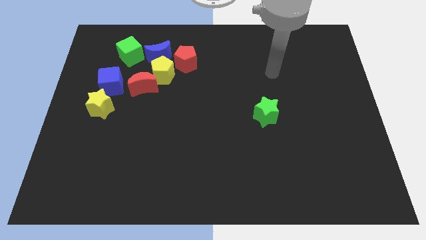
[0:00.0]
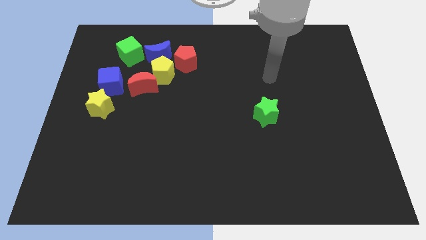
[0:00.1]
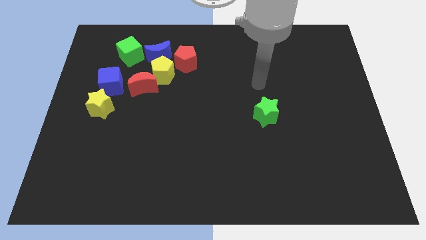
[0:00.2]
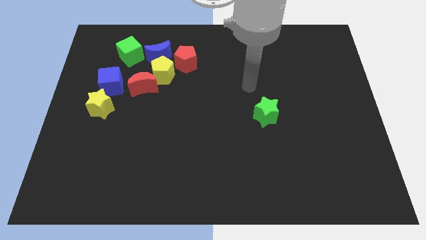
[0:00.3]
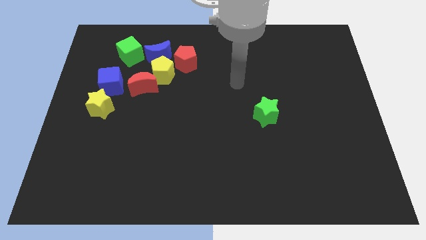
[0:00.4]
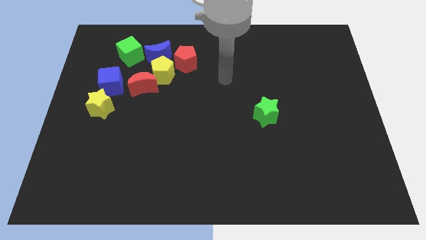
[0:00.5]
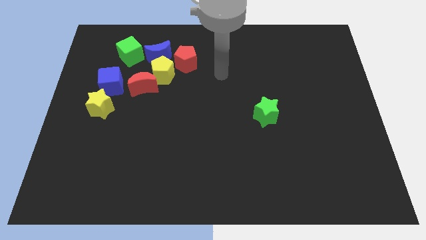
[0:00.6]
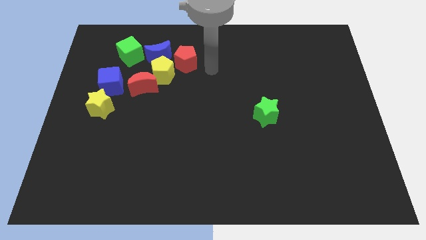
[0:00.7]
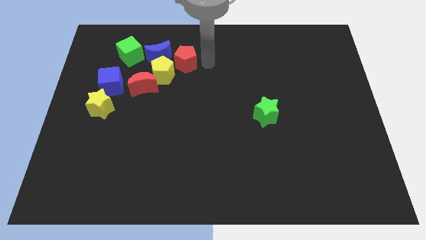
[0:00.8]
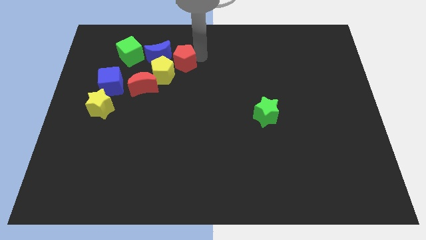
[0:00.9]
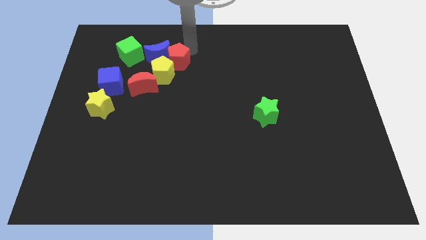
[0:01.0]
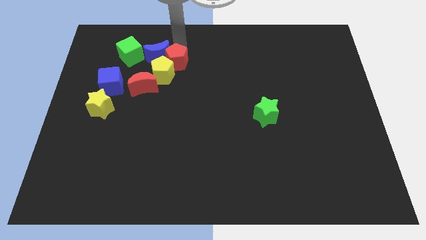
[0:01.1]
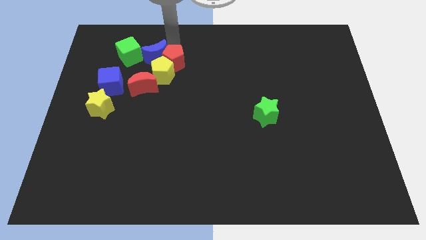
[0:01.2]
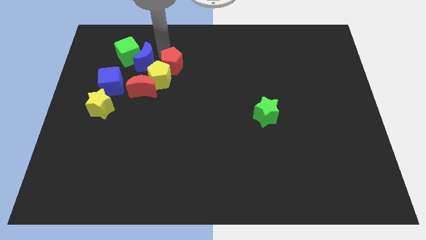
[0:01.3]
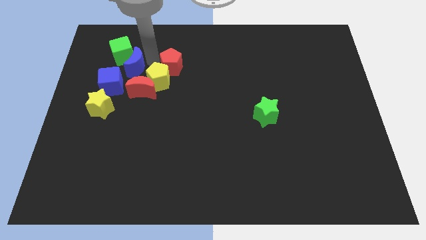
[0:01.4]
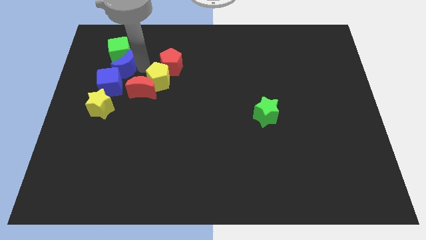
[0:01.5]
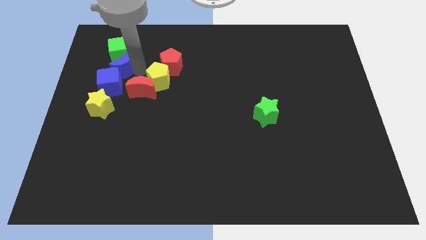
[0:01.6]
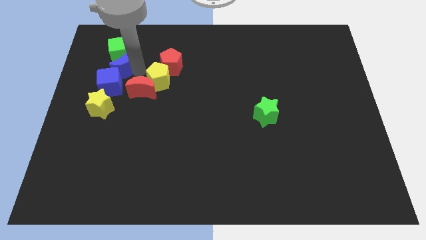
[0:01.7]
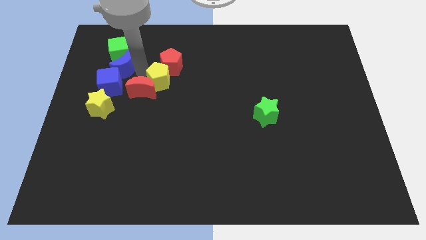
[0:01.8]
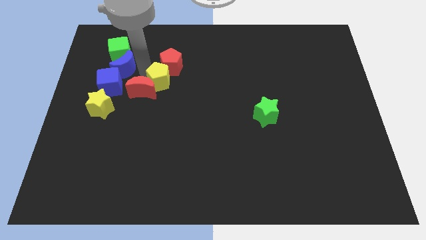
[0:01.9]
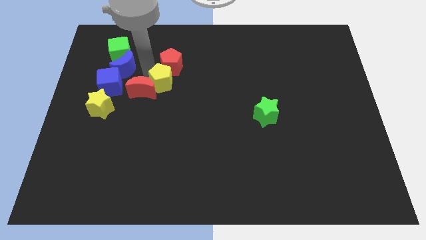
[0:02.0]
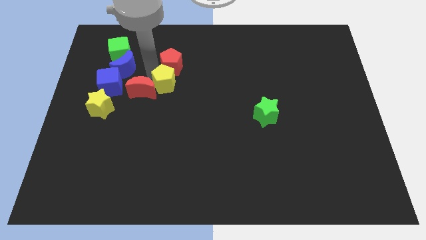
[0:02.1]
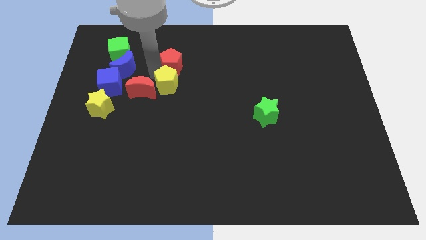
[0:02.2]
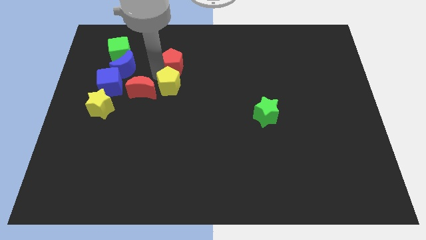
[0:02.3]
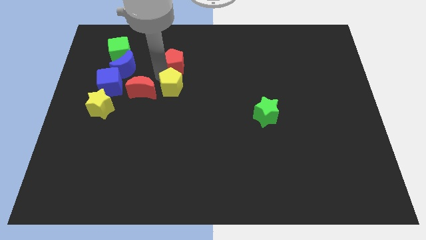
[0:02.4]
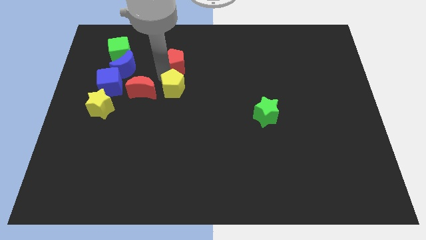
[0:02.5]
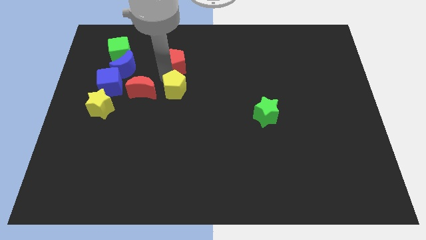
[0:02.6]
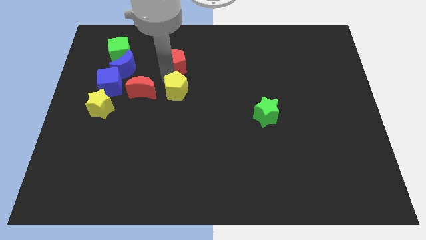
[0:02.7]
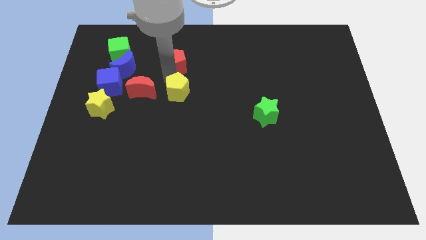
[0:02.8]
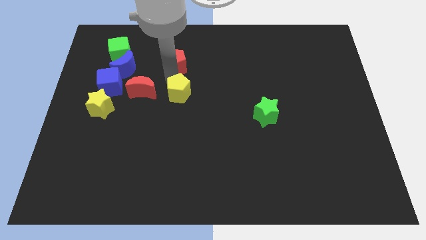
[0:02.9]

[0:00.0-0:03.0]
move the yellow pentagon away from the clump

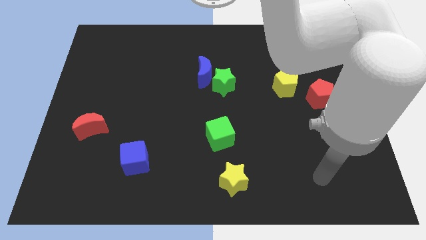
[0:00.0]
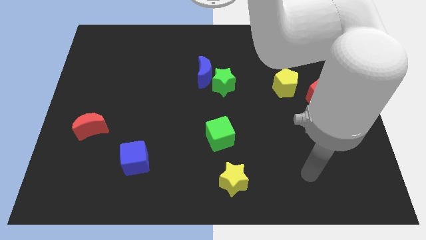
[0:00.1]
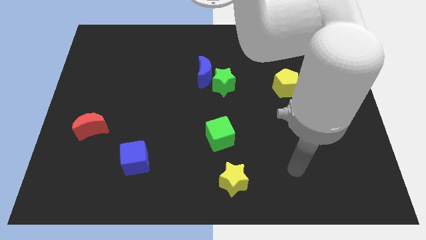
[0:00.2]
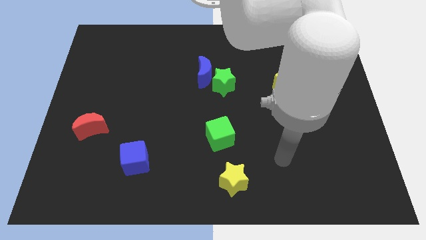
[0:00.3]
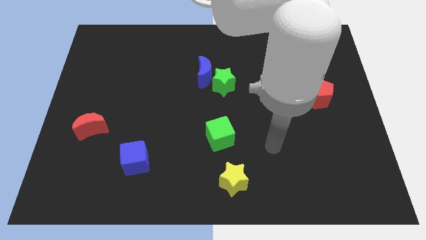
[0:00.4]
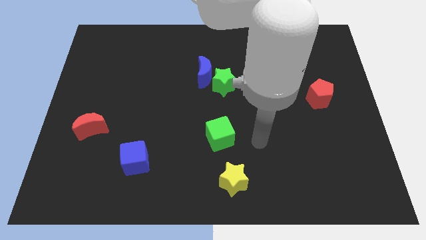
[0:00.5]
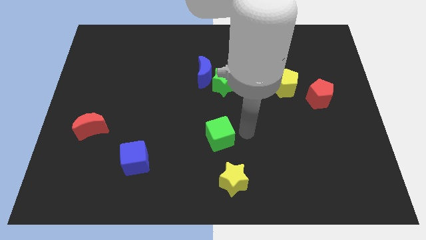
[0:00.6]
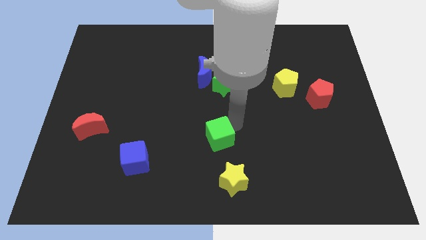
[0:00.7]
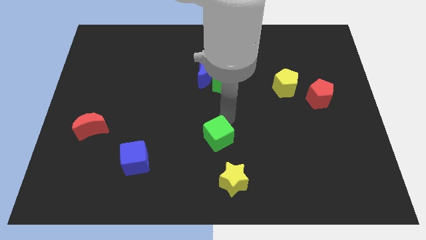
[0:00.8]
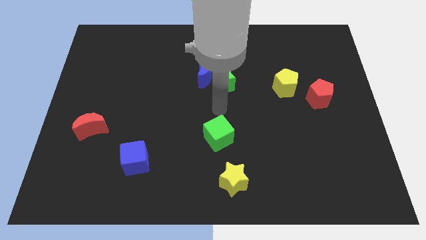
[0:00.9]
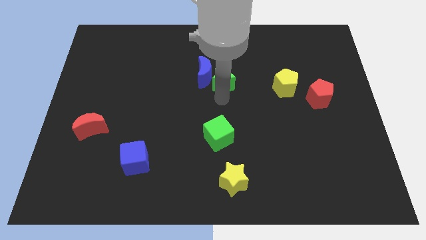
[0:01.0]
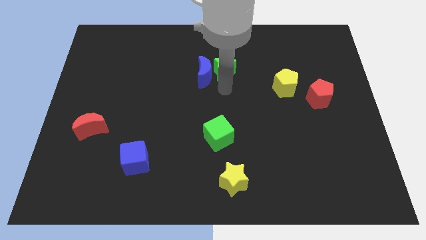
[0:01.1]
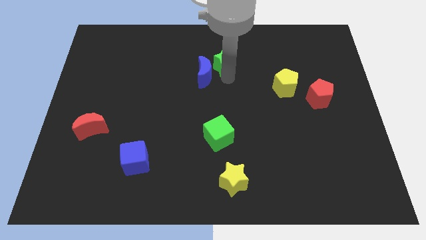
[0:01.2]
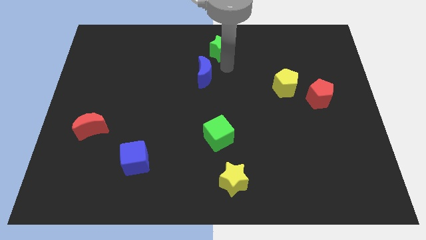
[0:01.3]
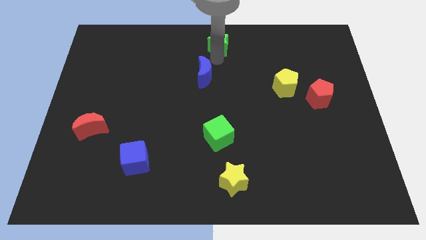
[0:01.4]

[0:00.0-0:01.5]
move the blue moon away from the green star

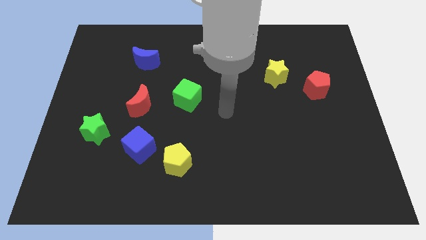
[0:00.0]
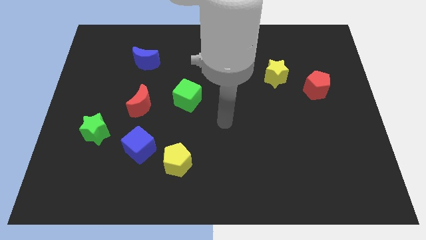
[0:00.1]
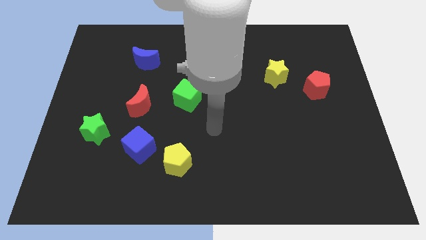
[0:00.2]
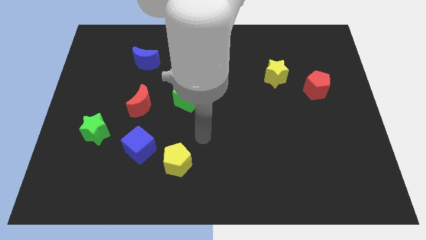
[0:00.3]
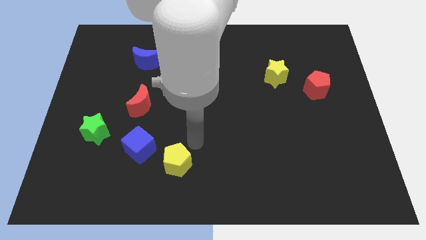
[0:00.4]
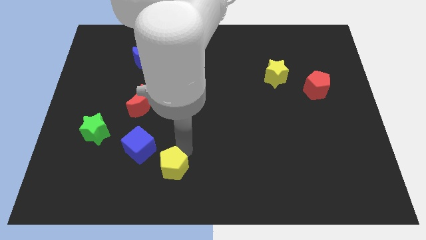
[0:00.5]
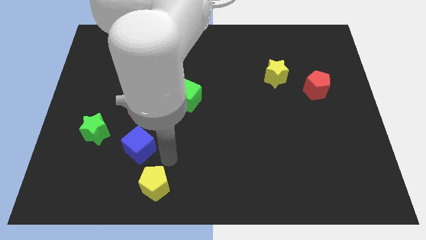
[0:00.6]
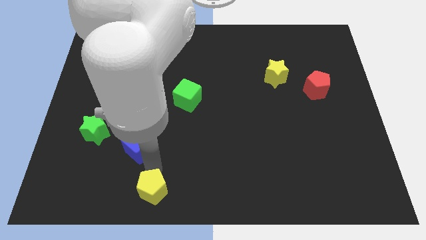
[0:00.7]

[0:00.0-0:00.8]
pull the blue cube apart from the yellow pentagon

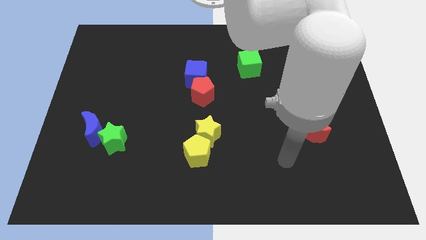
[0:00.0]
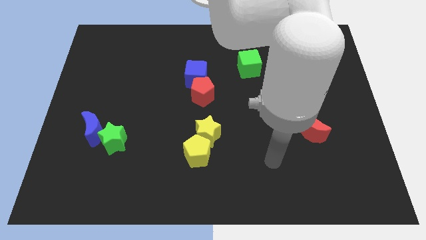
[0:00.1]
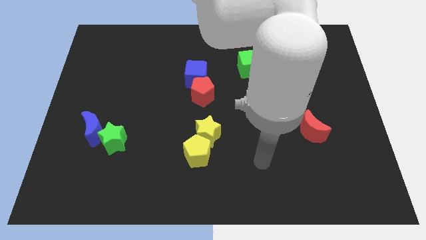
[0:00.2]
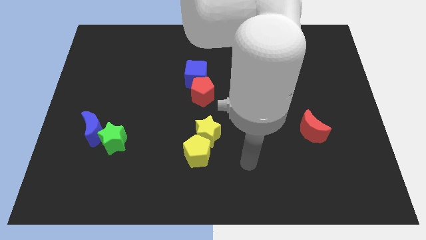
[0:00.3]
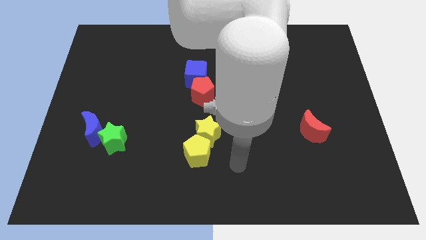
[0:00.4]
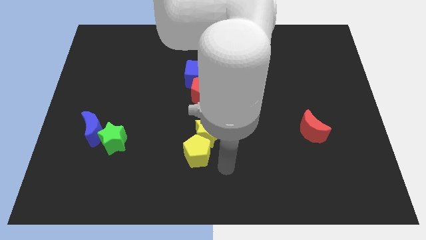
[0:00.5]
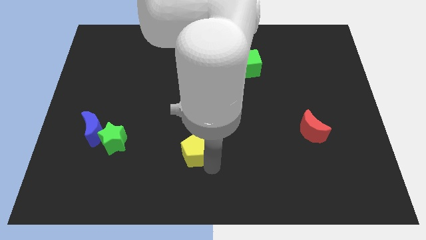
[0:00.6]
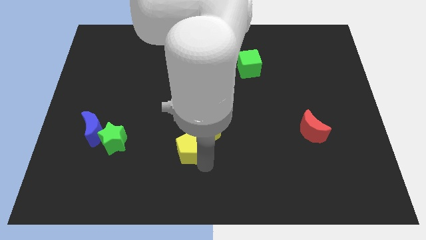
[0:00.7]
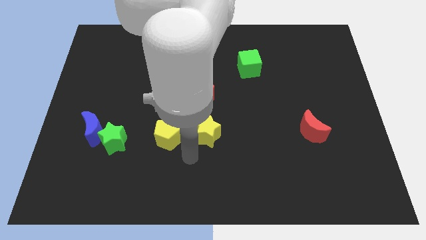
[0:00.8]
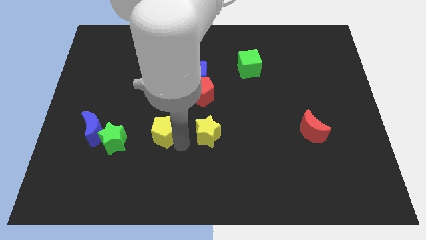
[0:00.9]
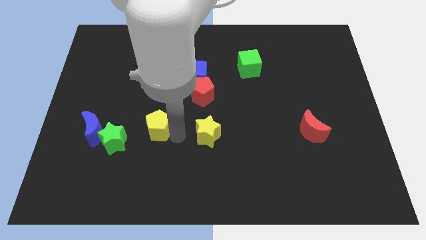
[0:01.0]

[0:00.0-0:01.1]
pull the yellow star apart from the yellow pentagon

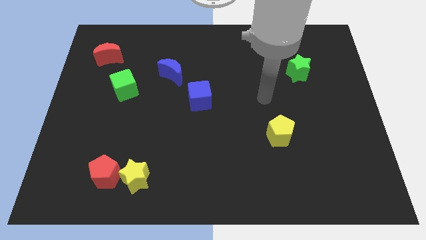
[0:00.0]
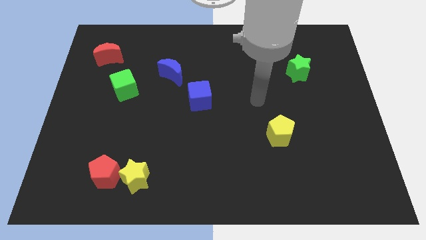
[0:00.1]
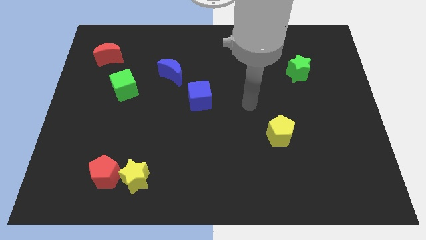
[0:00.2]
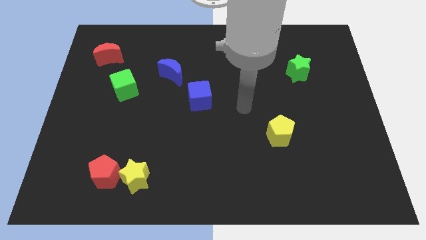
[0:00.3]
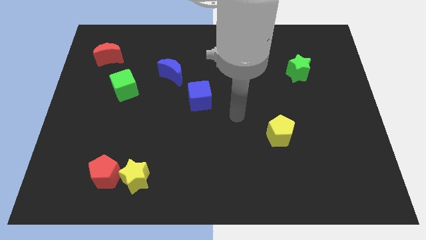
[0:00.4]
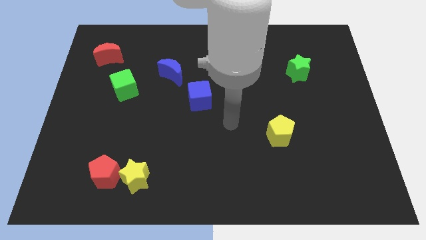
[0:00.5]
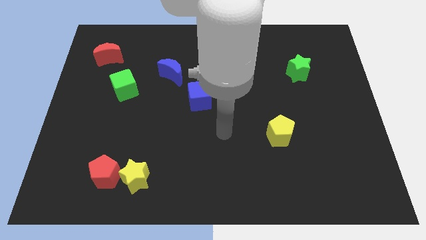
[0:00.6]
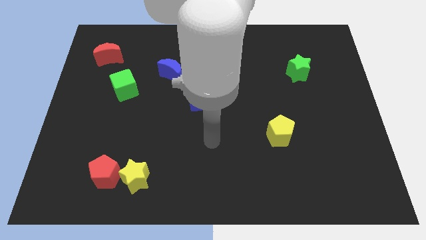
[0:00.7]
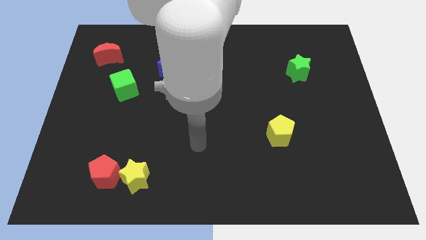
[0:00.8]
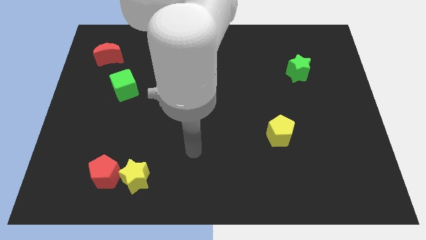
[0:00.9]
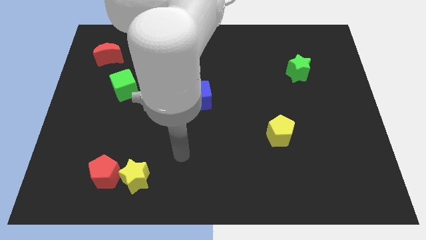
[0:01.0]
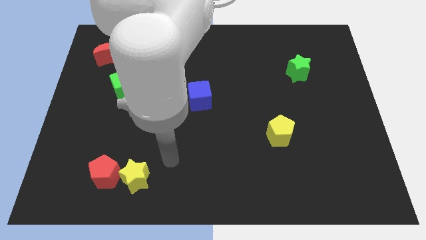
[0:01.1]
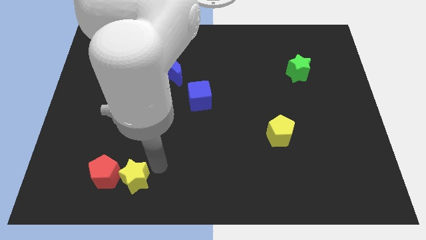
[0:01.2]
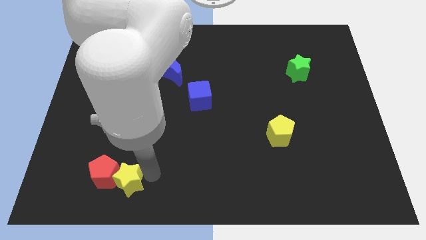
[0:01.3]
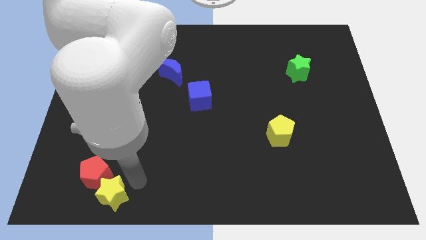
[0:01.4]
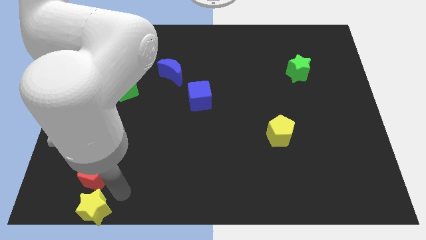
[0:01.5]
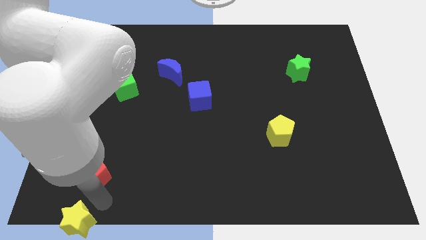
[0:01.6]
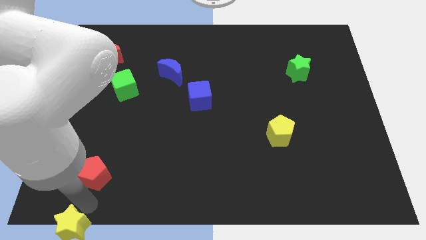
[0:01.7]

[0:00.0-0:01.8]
move the red pentagon away from the yellow star

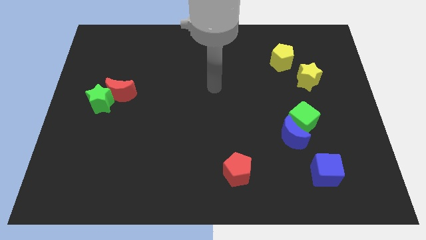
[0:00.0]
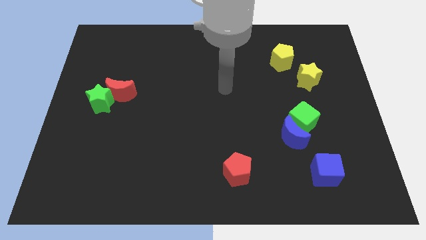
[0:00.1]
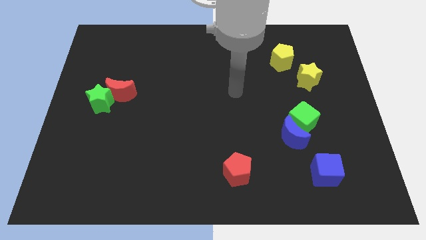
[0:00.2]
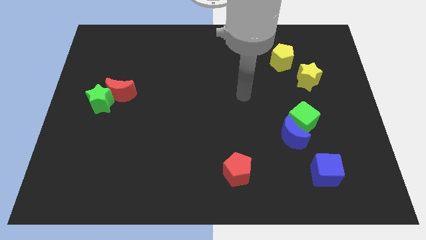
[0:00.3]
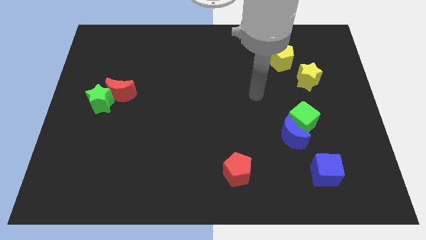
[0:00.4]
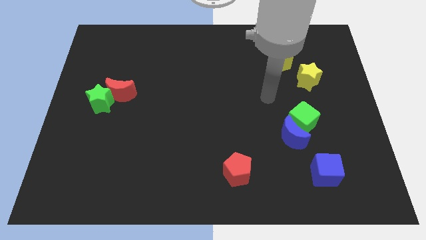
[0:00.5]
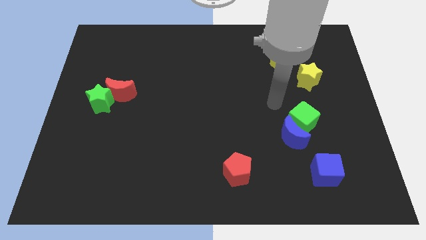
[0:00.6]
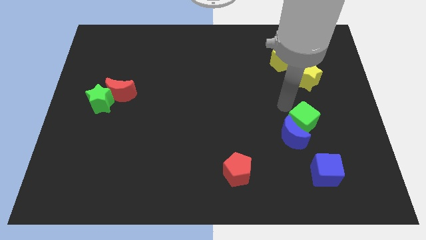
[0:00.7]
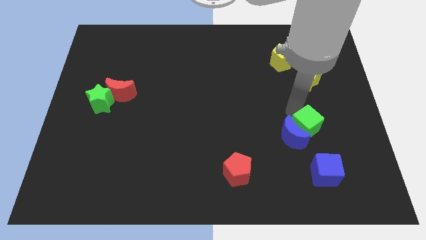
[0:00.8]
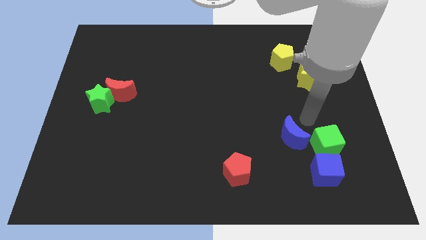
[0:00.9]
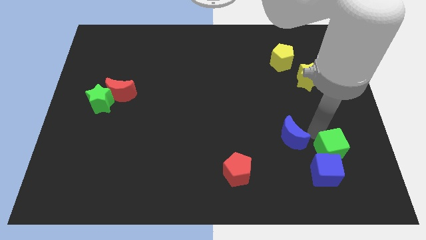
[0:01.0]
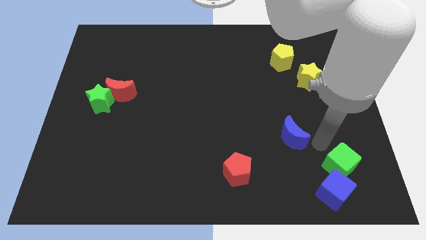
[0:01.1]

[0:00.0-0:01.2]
pull the blue moon apart from the green cube
